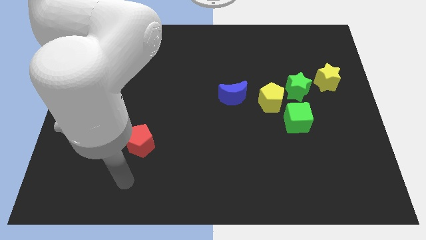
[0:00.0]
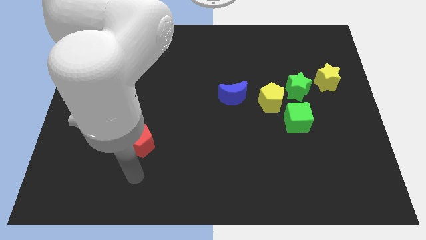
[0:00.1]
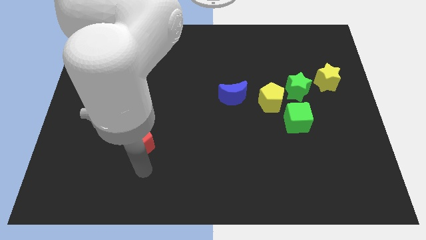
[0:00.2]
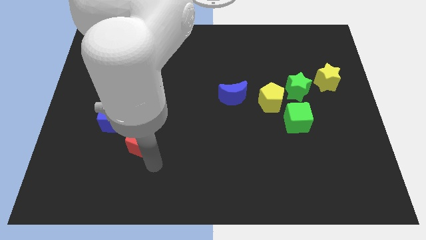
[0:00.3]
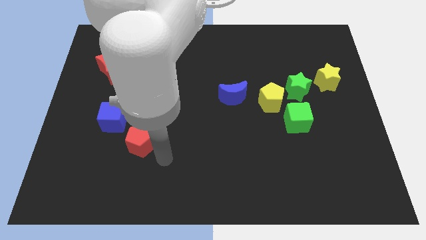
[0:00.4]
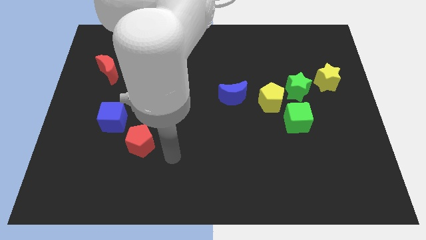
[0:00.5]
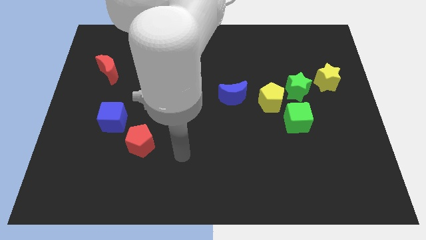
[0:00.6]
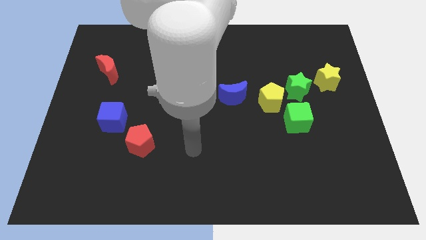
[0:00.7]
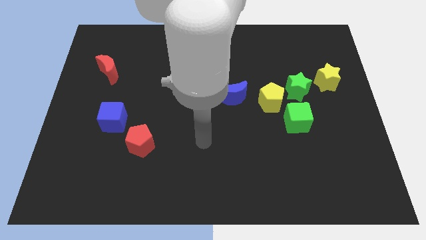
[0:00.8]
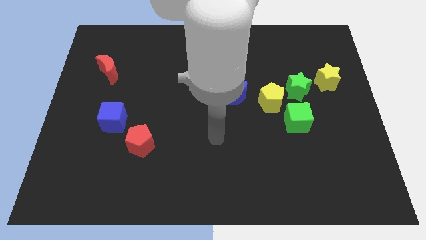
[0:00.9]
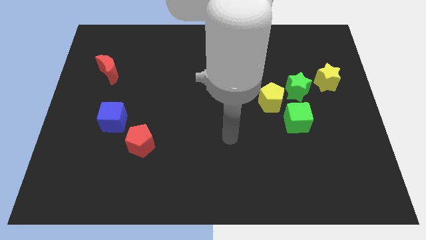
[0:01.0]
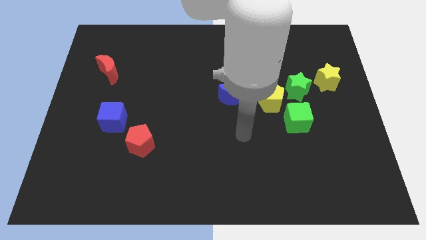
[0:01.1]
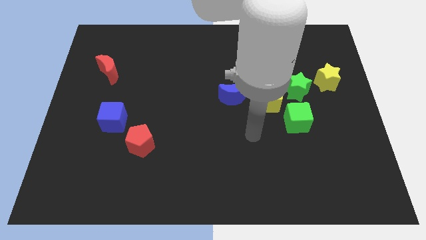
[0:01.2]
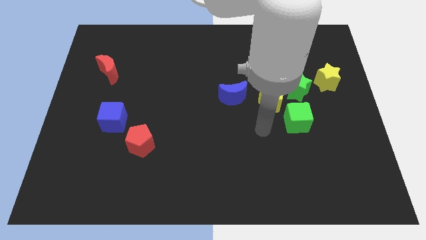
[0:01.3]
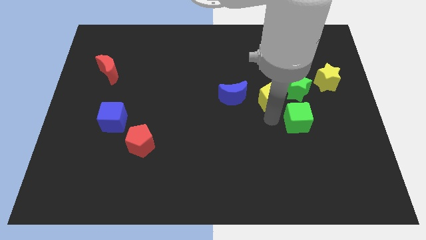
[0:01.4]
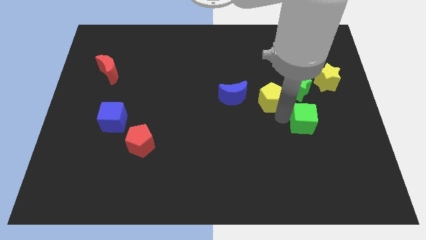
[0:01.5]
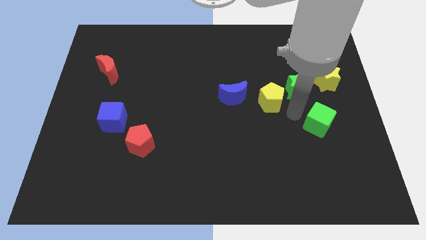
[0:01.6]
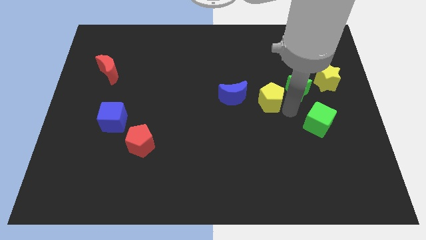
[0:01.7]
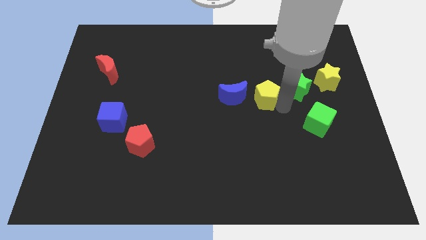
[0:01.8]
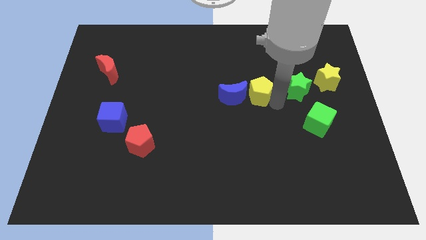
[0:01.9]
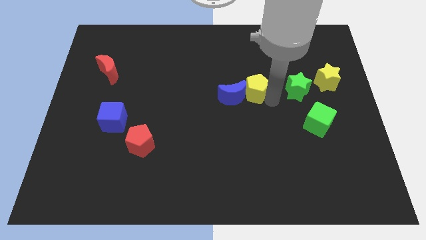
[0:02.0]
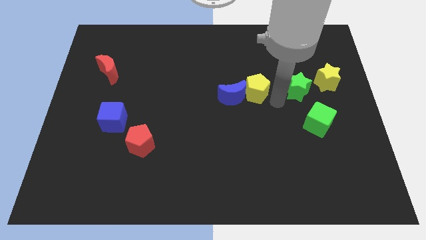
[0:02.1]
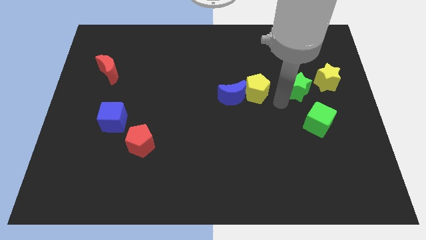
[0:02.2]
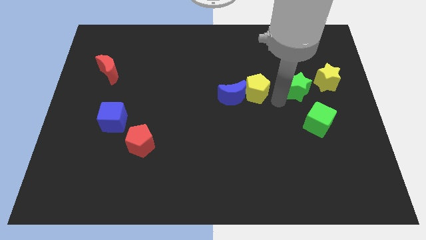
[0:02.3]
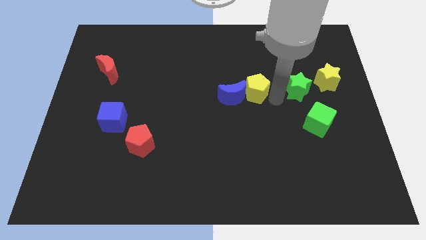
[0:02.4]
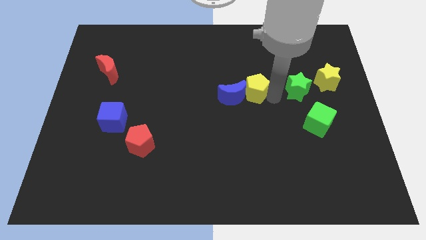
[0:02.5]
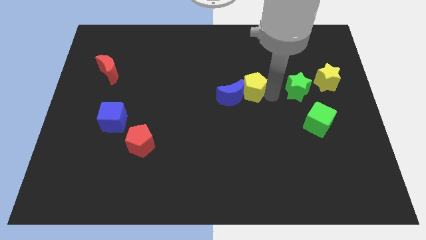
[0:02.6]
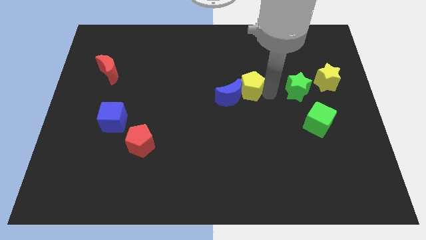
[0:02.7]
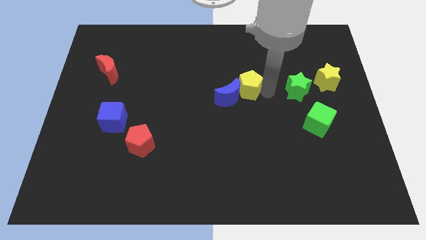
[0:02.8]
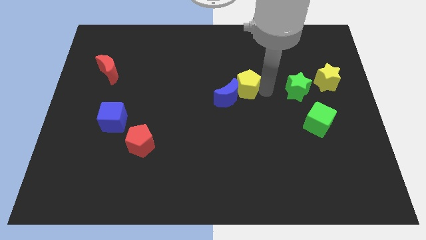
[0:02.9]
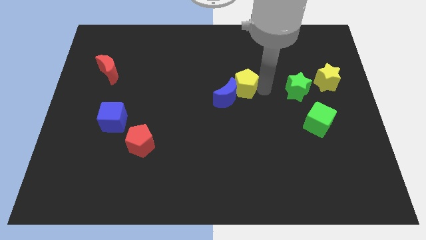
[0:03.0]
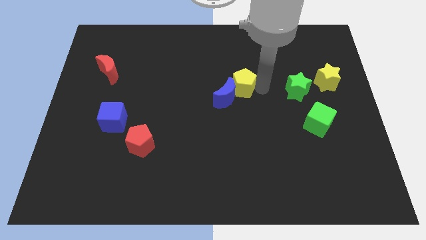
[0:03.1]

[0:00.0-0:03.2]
separate the yellow pentagon from the green star, green cube, and blue moon

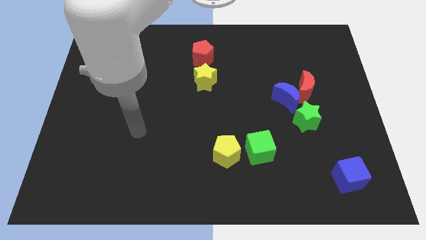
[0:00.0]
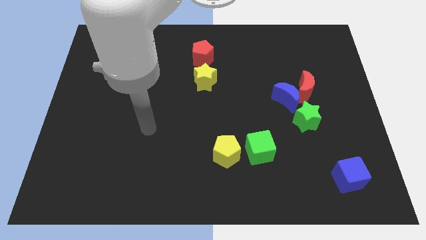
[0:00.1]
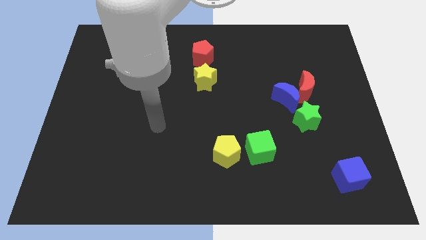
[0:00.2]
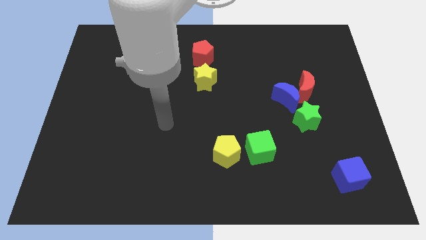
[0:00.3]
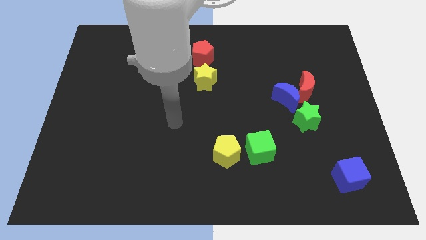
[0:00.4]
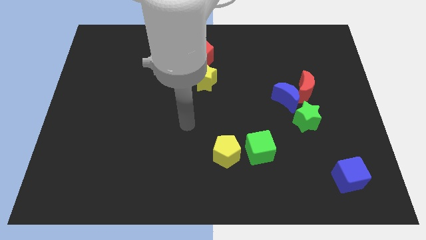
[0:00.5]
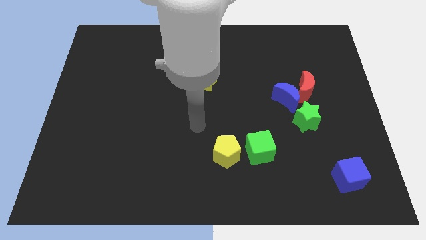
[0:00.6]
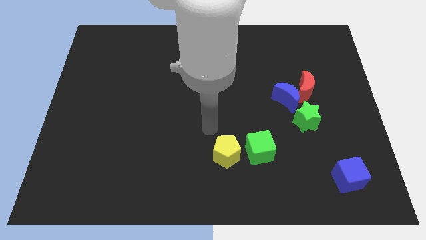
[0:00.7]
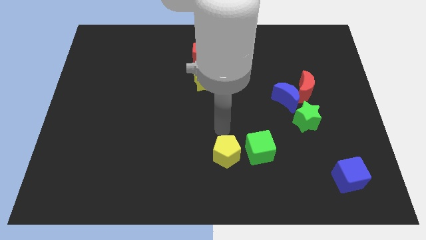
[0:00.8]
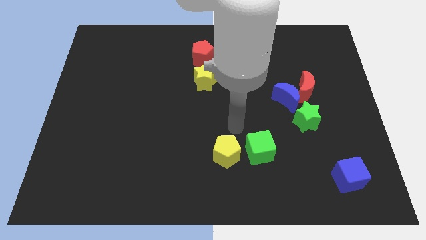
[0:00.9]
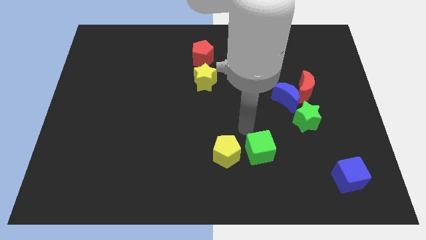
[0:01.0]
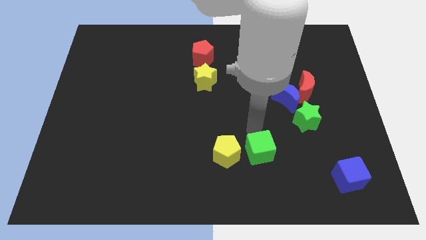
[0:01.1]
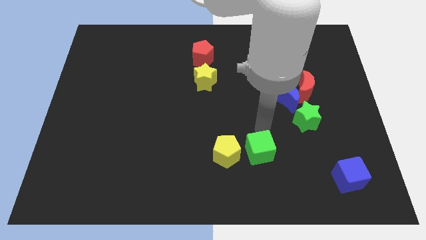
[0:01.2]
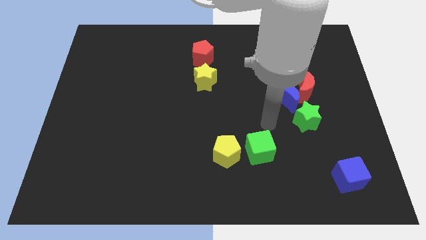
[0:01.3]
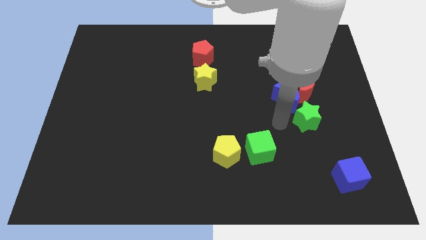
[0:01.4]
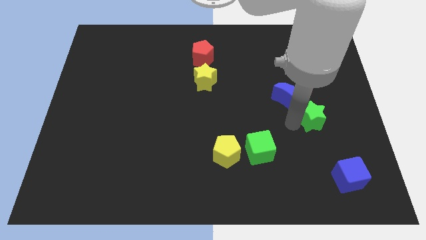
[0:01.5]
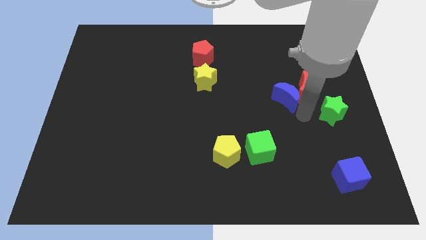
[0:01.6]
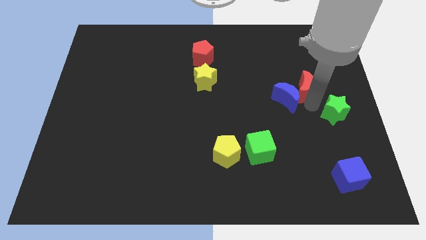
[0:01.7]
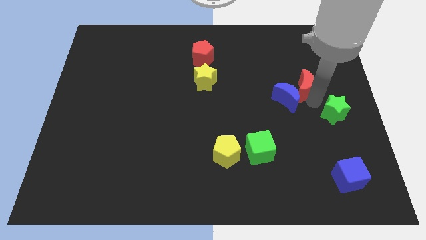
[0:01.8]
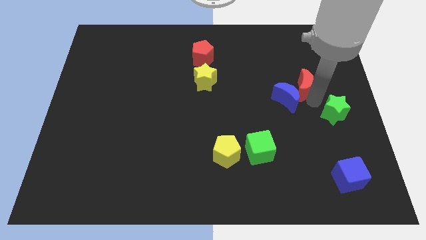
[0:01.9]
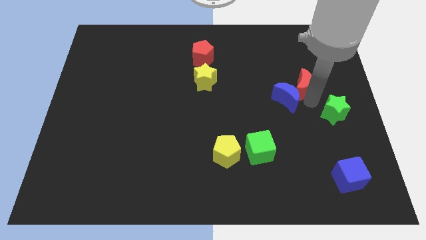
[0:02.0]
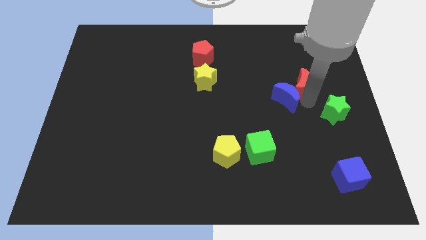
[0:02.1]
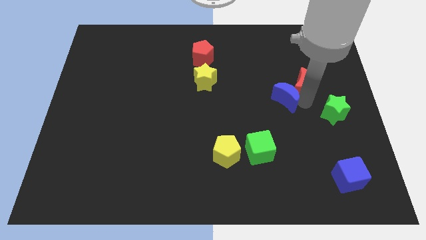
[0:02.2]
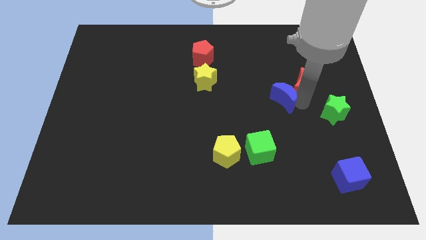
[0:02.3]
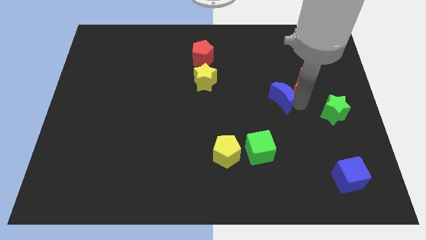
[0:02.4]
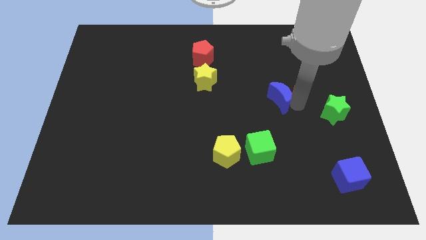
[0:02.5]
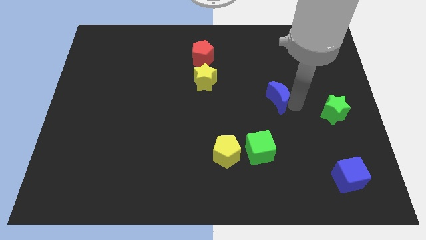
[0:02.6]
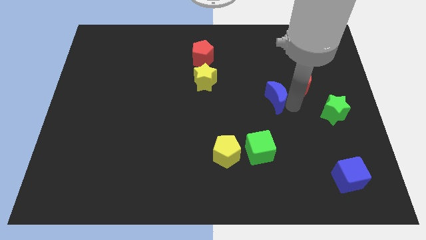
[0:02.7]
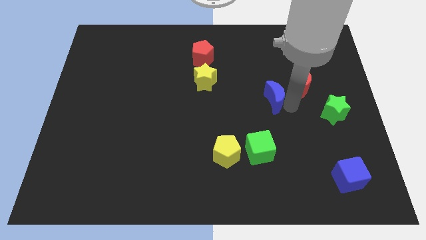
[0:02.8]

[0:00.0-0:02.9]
pull the blue moon apart from the red moon and green star

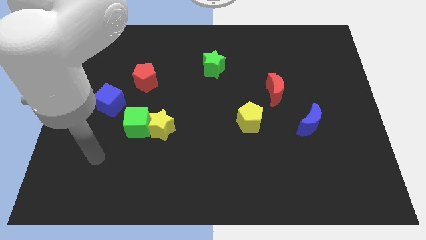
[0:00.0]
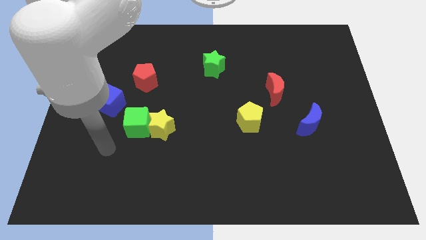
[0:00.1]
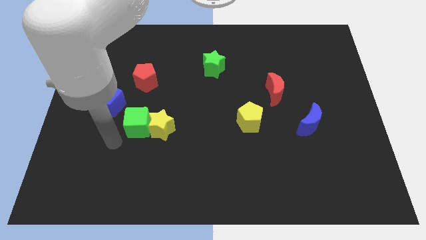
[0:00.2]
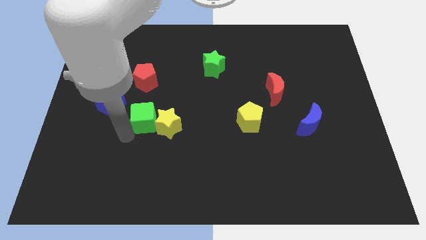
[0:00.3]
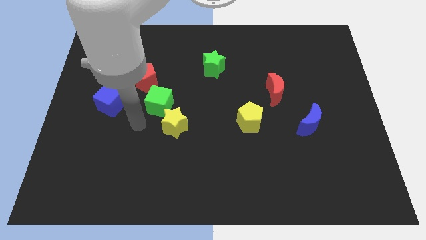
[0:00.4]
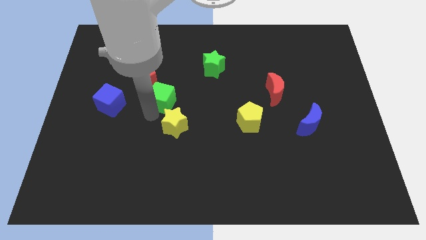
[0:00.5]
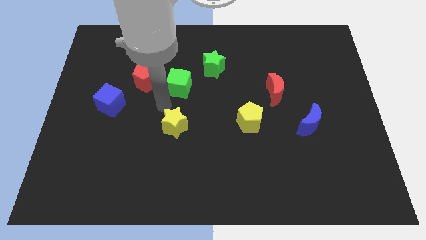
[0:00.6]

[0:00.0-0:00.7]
pull the yellow star apart from the green cube

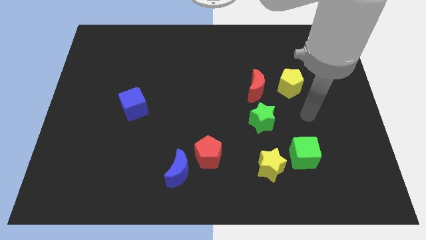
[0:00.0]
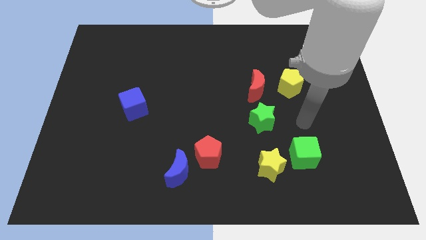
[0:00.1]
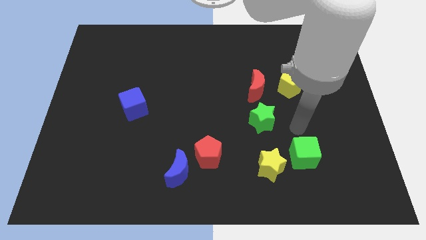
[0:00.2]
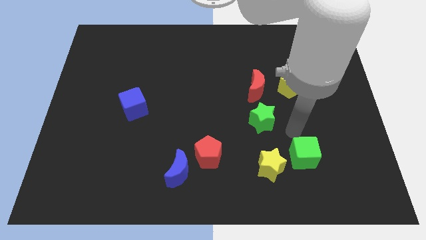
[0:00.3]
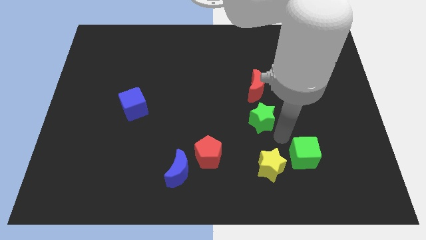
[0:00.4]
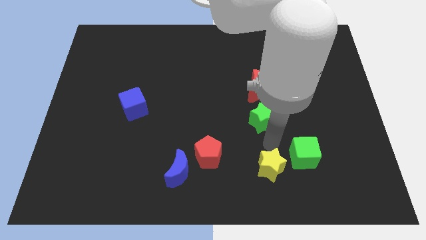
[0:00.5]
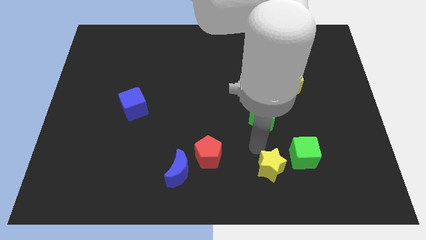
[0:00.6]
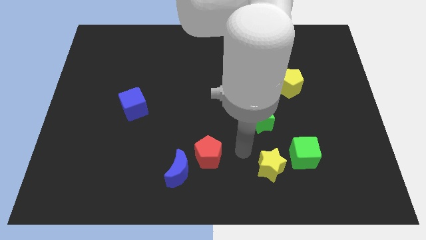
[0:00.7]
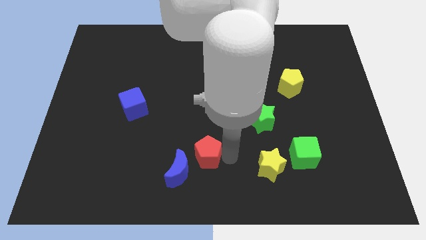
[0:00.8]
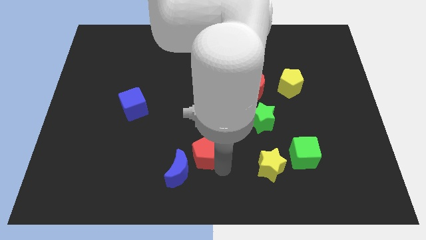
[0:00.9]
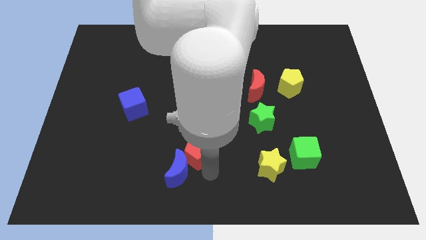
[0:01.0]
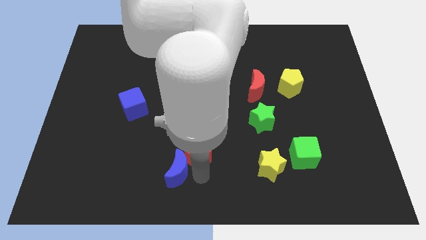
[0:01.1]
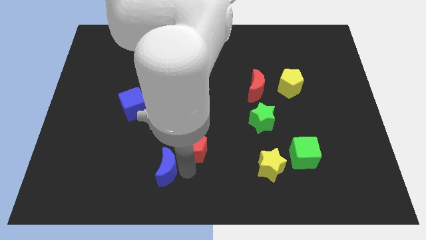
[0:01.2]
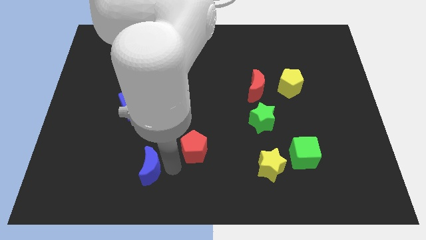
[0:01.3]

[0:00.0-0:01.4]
move the red pentagon away from the blue moon

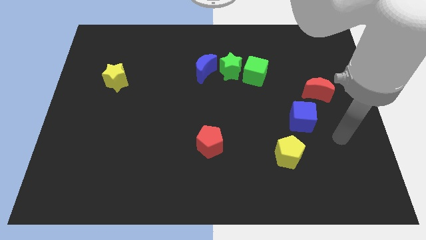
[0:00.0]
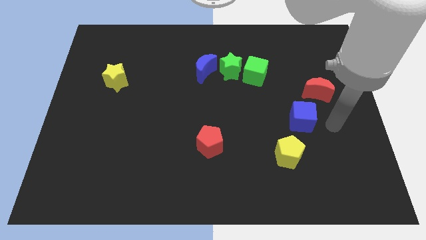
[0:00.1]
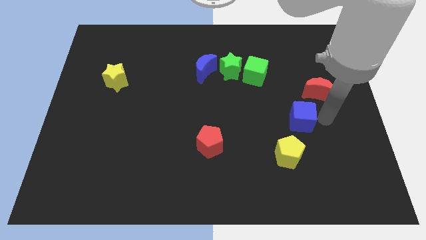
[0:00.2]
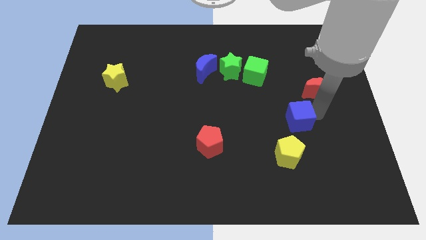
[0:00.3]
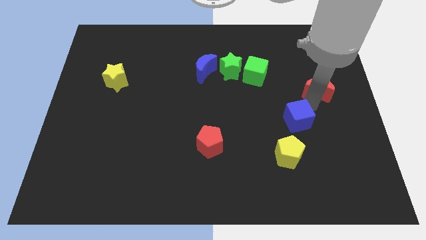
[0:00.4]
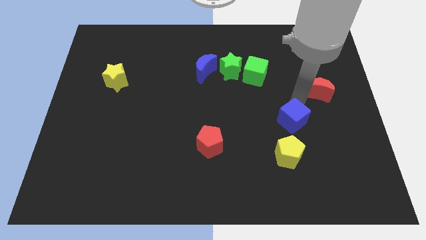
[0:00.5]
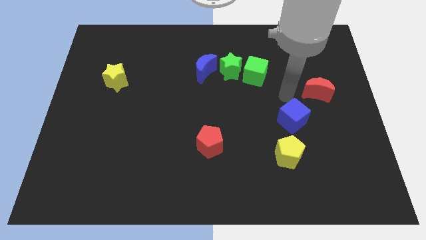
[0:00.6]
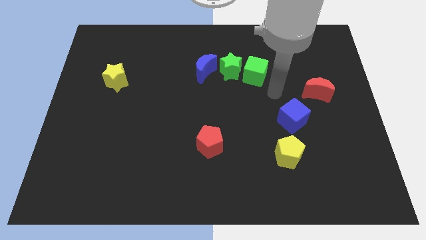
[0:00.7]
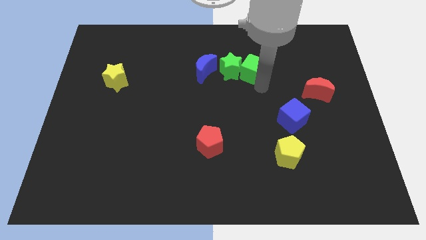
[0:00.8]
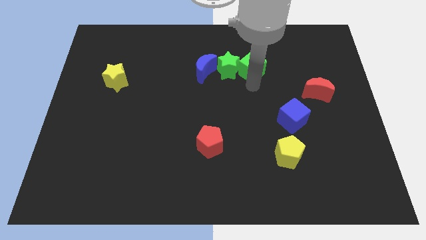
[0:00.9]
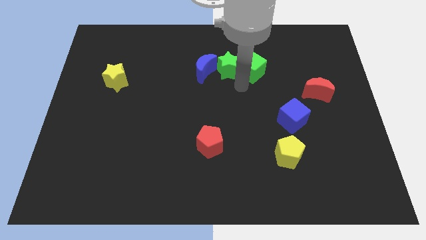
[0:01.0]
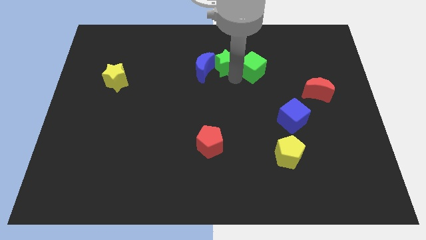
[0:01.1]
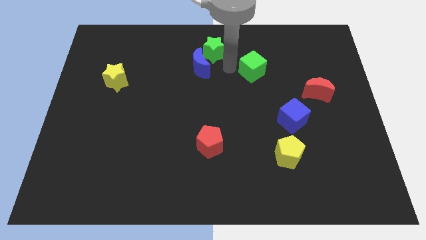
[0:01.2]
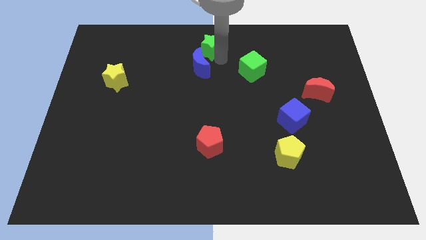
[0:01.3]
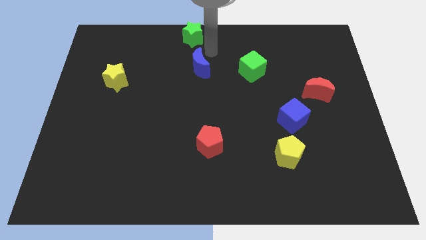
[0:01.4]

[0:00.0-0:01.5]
separate the blue moon from the green star
